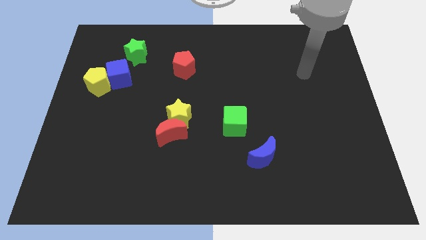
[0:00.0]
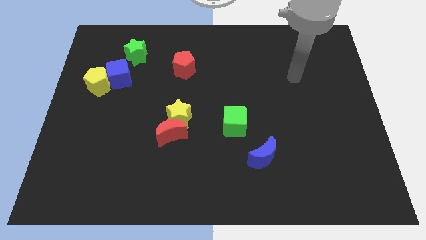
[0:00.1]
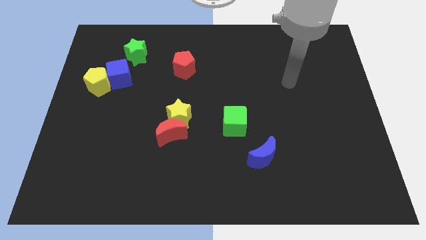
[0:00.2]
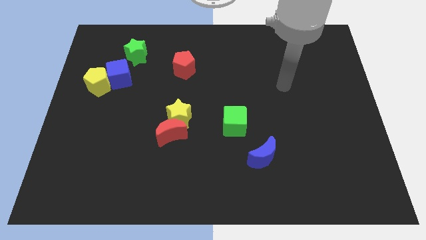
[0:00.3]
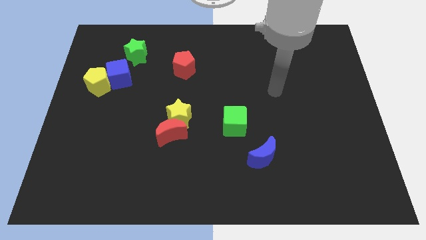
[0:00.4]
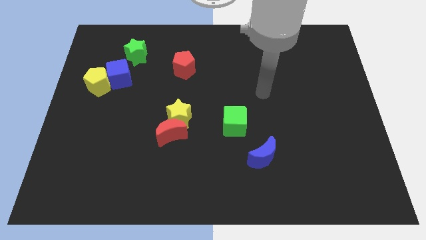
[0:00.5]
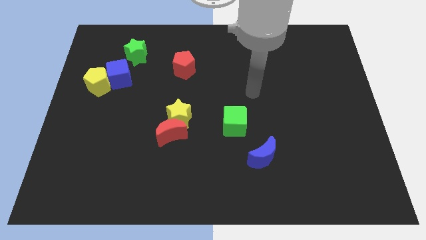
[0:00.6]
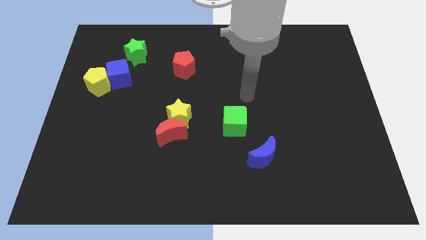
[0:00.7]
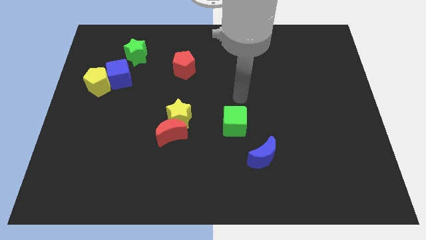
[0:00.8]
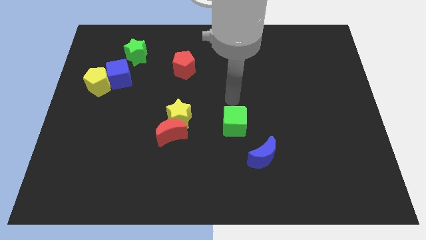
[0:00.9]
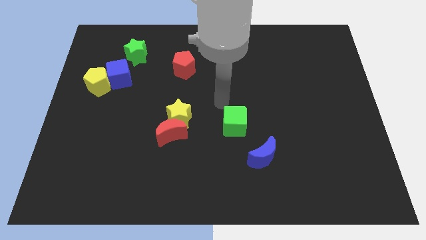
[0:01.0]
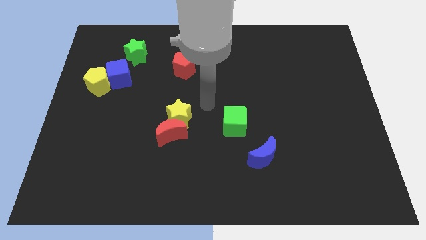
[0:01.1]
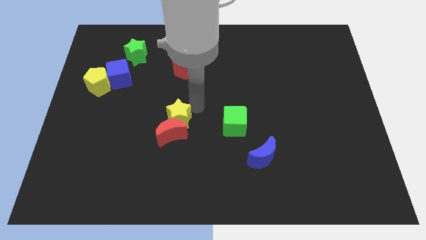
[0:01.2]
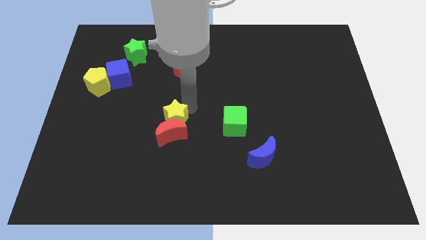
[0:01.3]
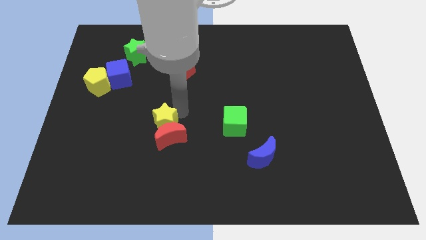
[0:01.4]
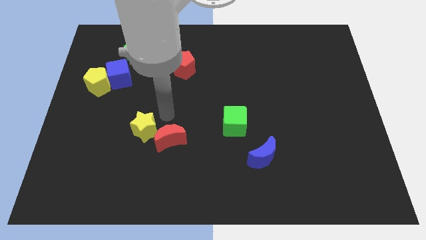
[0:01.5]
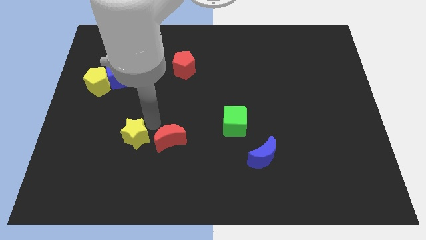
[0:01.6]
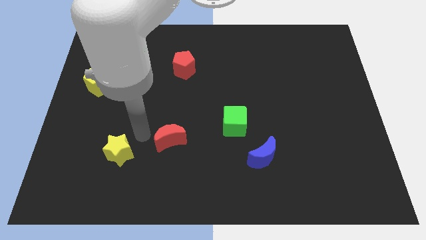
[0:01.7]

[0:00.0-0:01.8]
pull the red moon apart from the yellow star

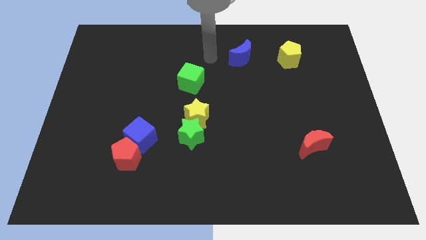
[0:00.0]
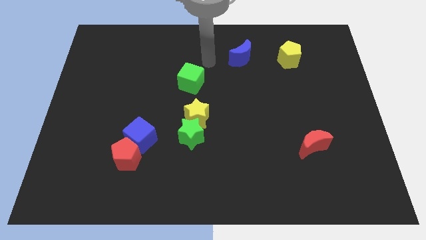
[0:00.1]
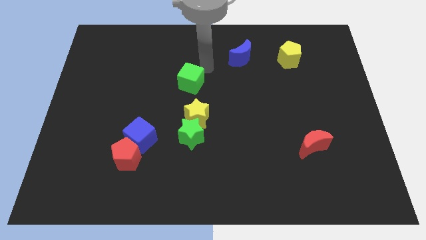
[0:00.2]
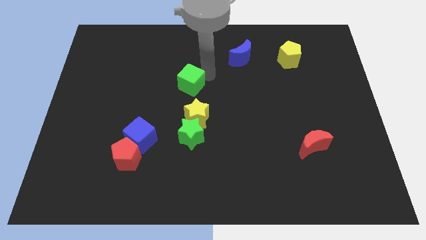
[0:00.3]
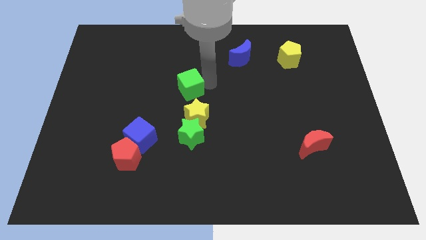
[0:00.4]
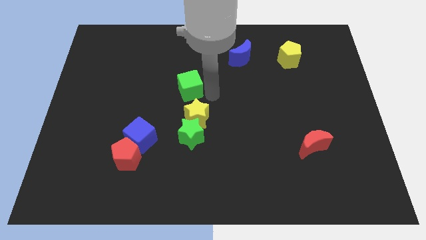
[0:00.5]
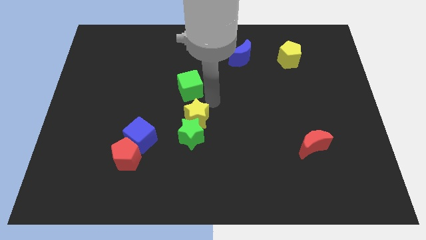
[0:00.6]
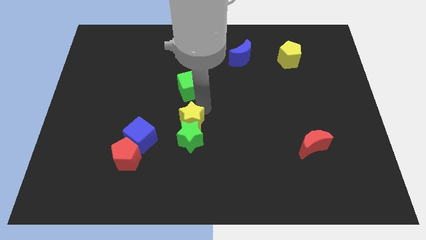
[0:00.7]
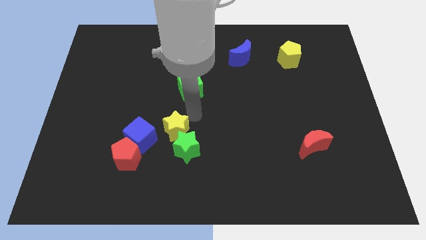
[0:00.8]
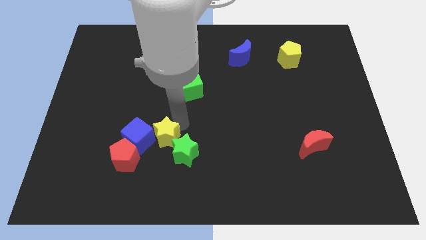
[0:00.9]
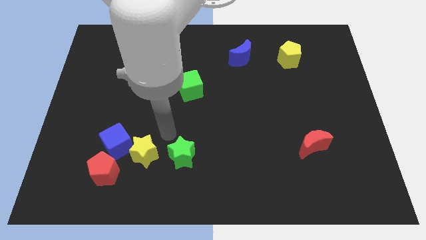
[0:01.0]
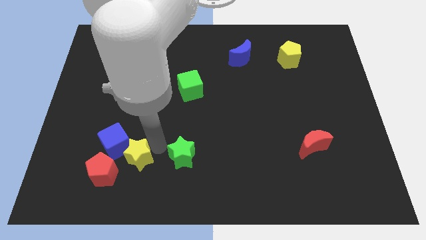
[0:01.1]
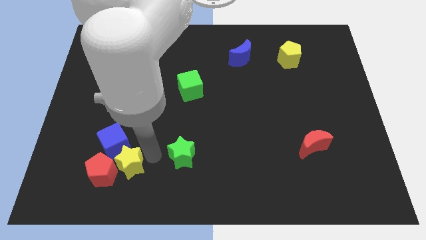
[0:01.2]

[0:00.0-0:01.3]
separate the green star from the yellow star

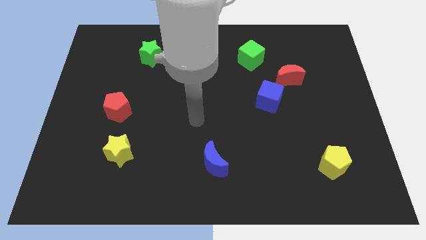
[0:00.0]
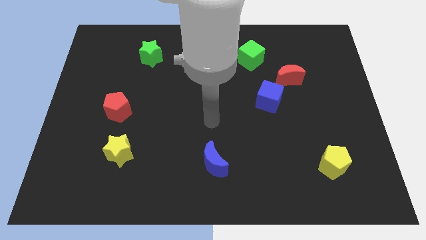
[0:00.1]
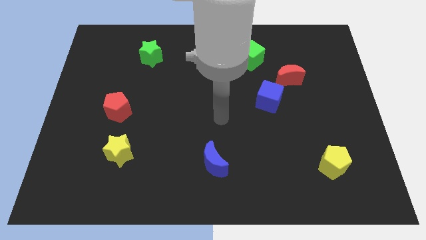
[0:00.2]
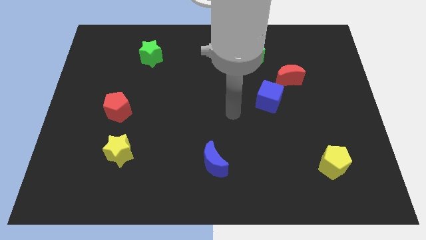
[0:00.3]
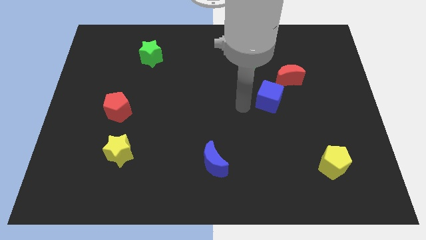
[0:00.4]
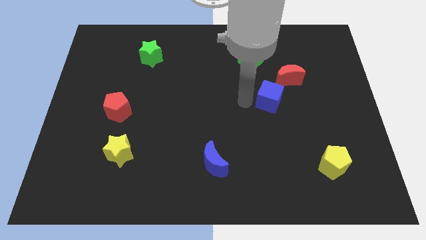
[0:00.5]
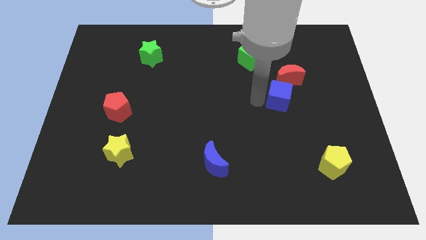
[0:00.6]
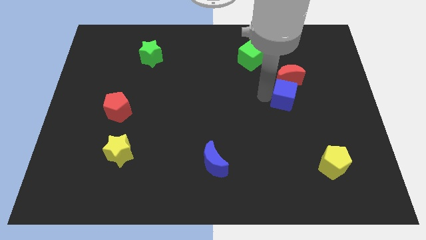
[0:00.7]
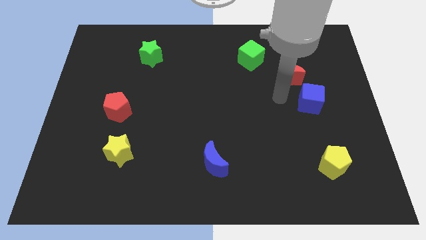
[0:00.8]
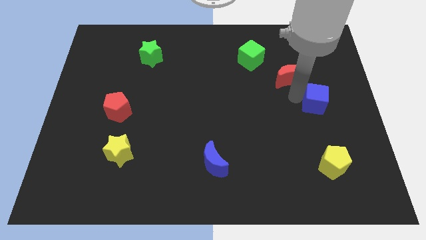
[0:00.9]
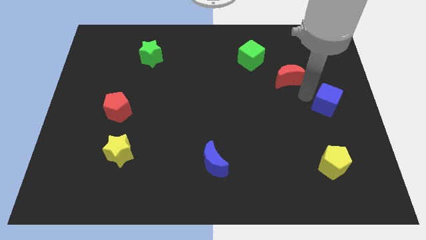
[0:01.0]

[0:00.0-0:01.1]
move the red moon away from the blue cube

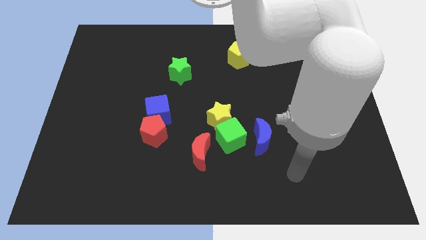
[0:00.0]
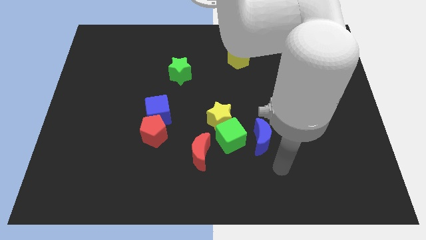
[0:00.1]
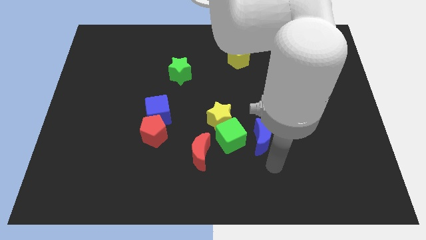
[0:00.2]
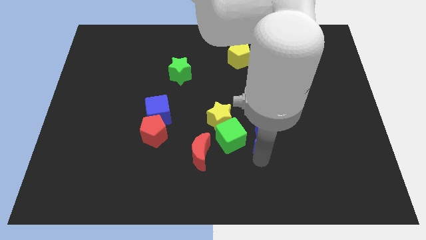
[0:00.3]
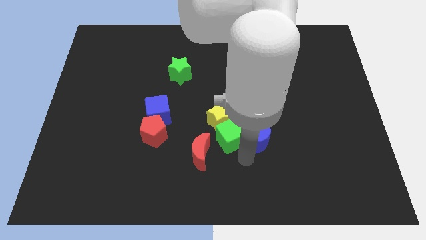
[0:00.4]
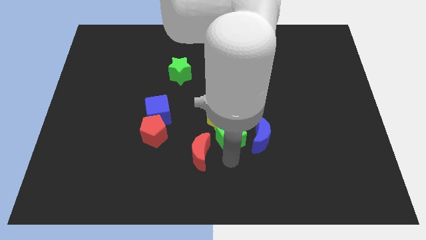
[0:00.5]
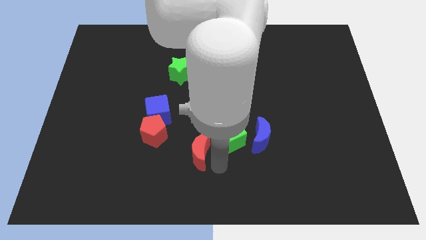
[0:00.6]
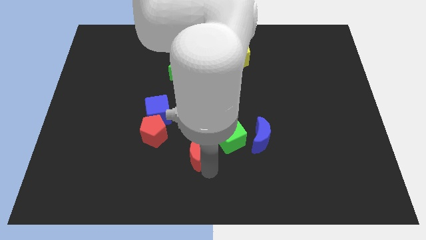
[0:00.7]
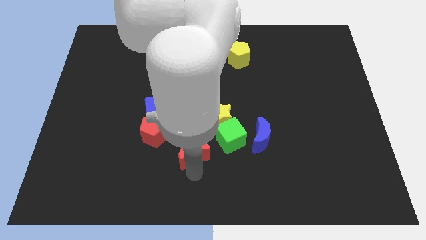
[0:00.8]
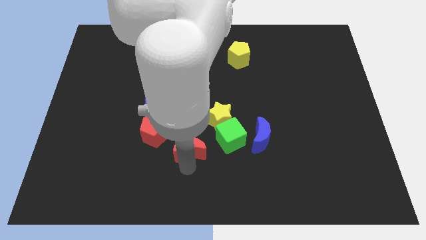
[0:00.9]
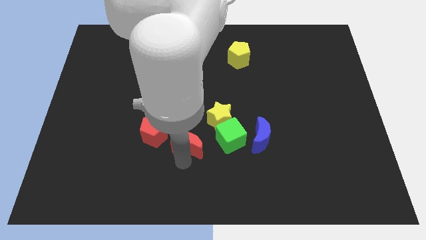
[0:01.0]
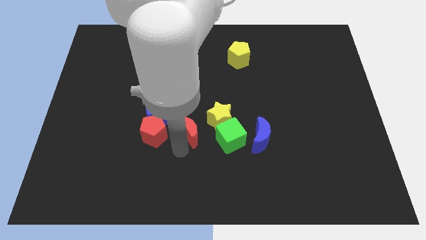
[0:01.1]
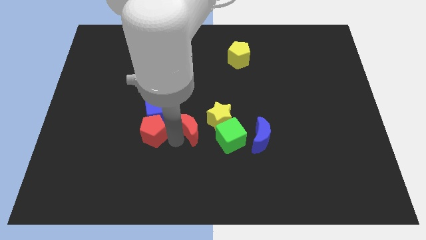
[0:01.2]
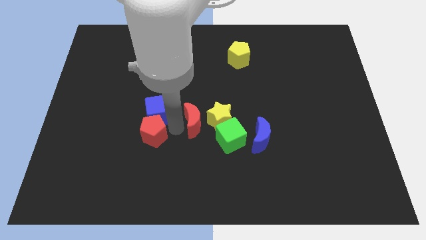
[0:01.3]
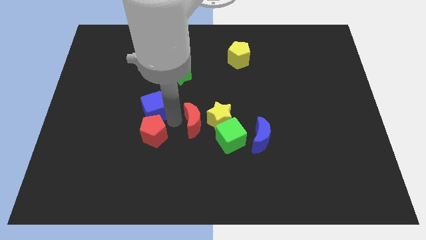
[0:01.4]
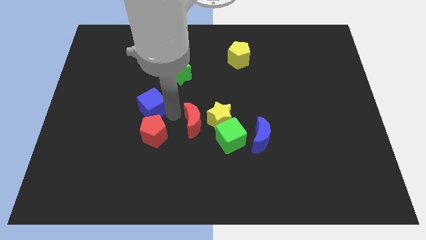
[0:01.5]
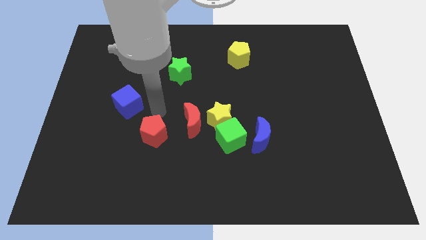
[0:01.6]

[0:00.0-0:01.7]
move the red pentagon away from the blue cube

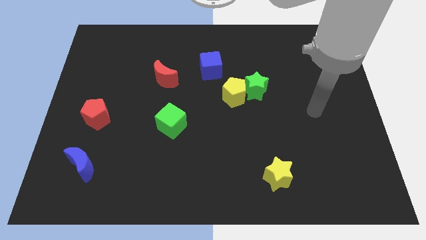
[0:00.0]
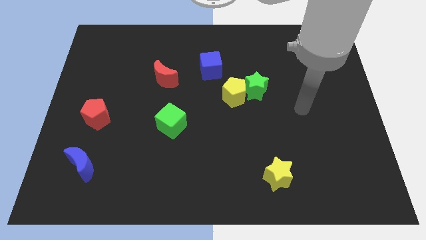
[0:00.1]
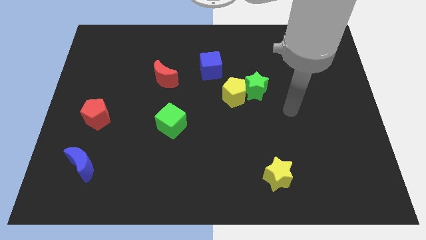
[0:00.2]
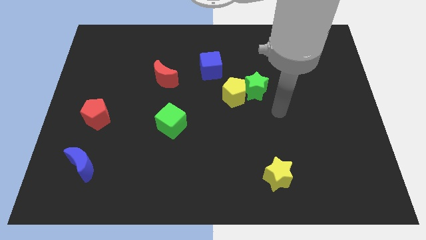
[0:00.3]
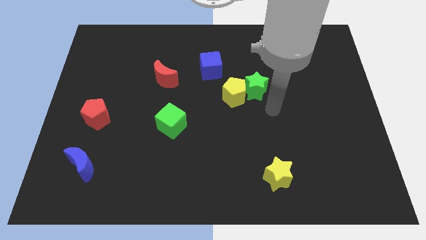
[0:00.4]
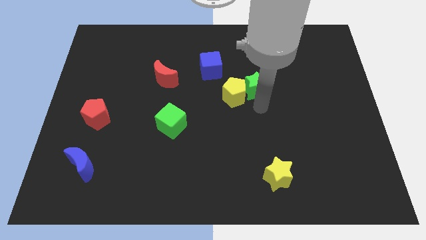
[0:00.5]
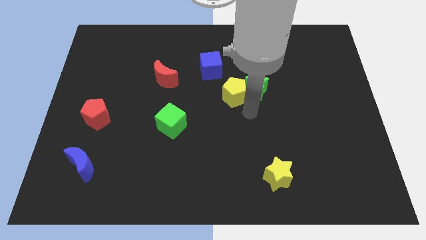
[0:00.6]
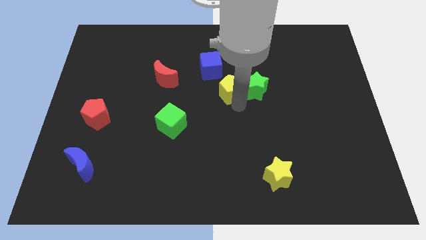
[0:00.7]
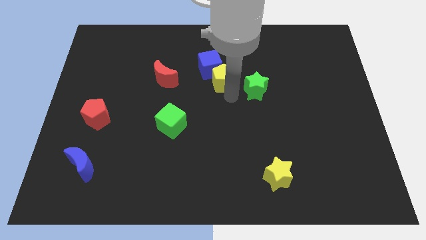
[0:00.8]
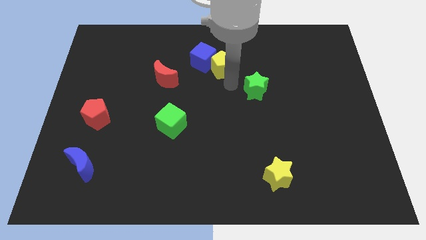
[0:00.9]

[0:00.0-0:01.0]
pull the green star apart from the yellow pentagon

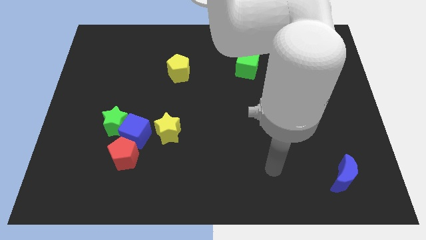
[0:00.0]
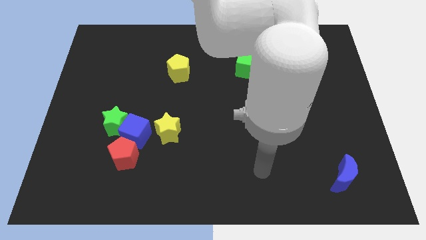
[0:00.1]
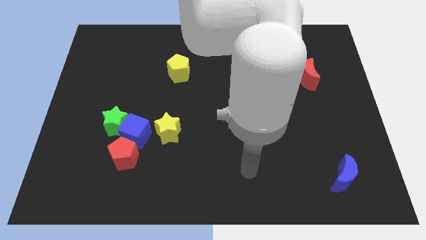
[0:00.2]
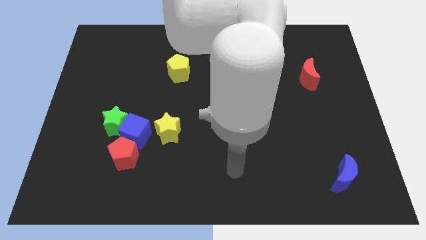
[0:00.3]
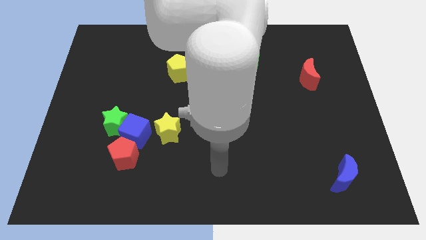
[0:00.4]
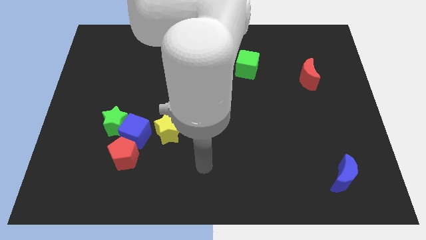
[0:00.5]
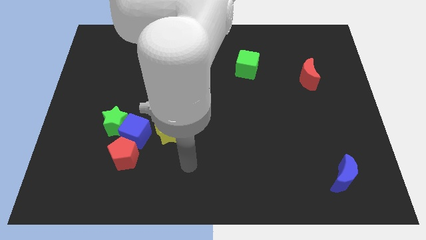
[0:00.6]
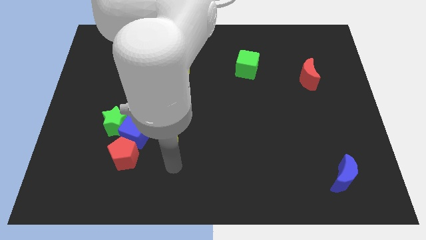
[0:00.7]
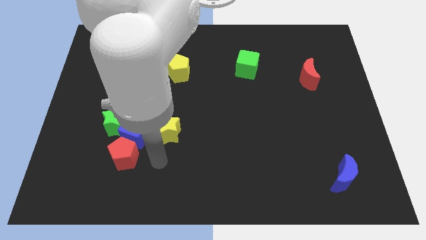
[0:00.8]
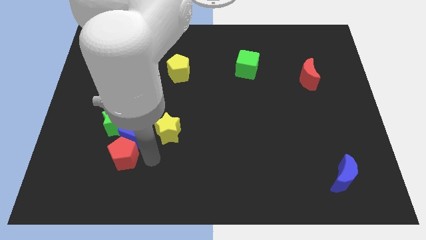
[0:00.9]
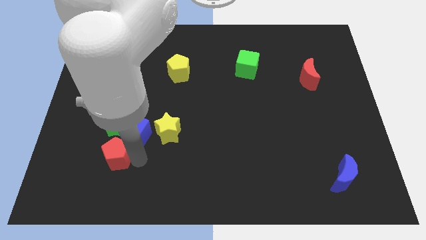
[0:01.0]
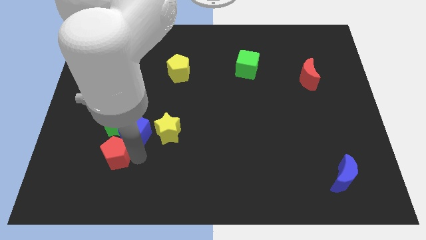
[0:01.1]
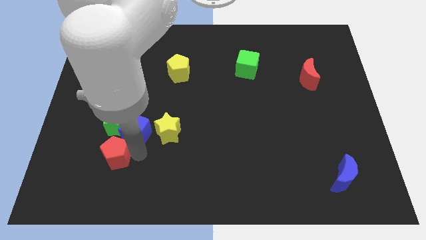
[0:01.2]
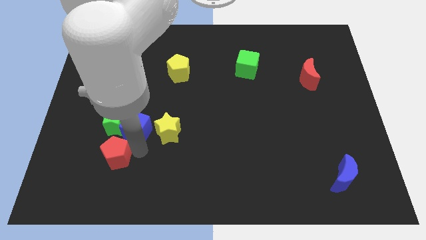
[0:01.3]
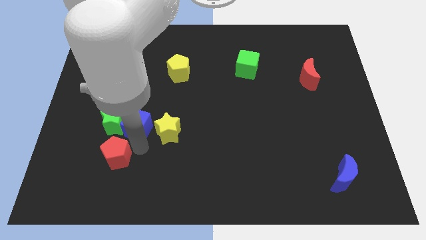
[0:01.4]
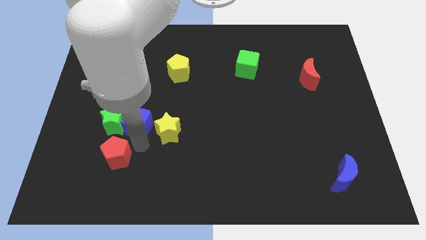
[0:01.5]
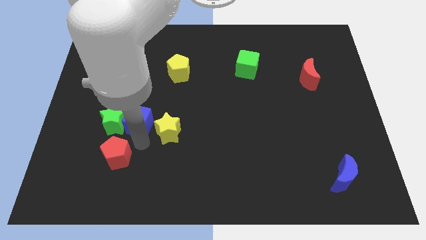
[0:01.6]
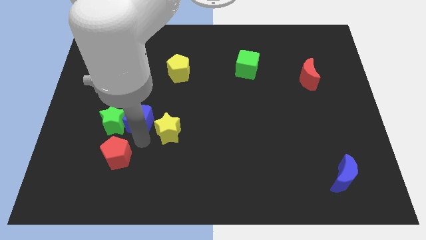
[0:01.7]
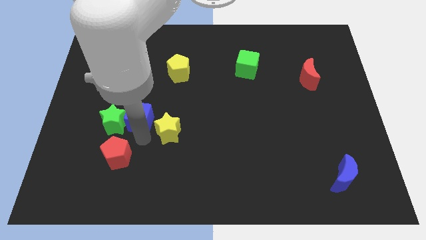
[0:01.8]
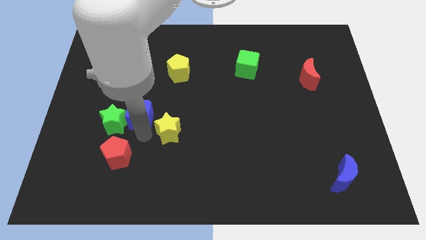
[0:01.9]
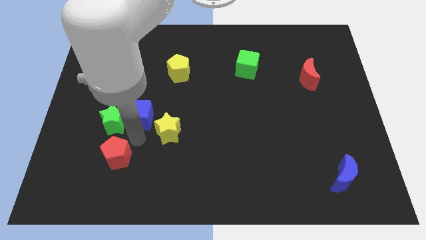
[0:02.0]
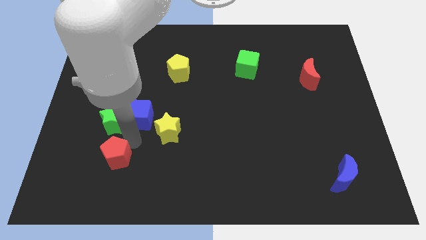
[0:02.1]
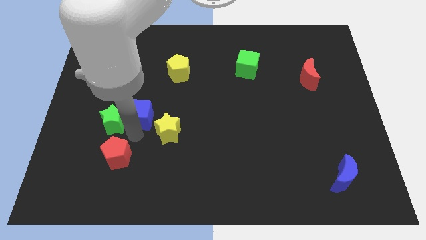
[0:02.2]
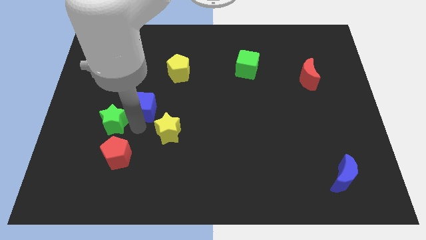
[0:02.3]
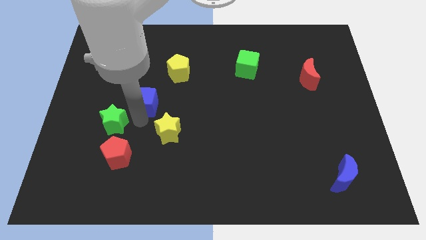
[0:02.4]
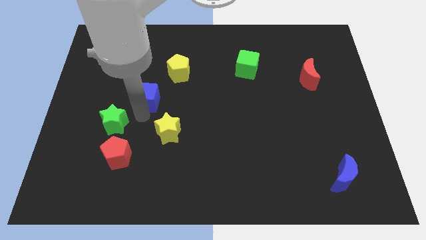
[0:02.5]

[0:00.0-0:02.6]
pull the blue cube apart from the green star, red pentagon, and yellow star
